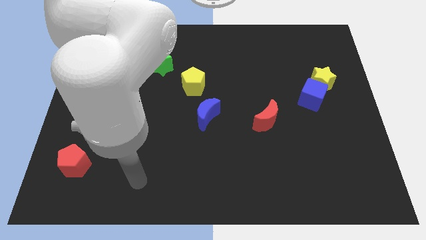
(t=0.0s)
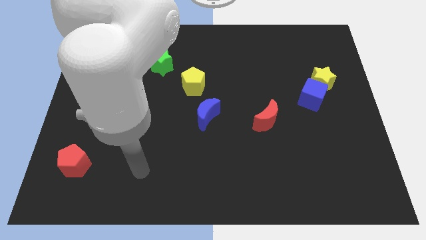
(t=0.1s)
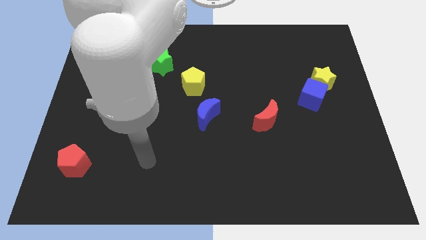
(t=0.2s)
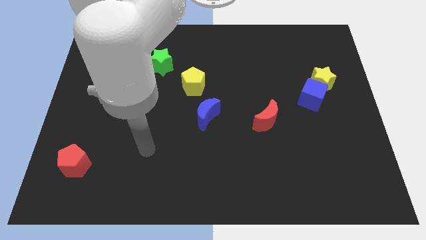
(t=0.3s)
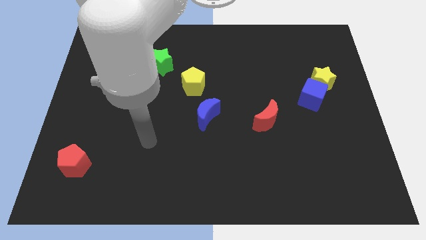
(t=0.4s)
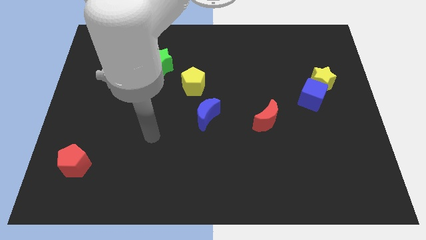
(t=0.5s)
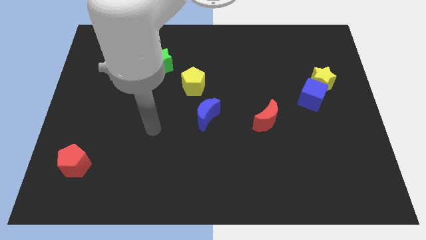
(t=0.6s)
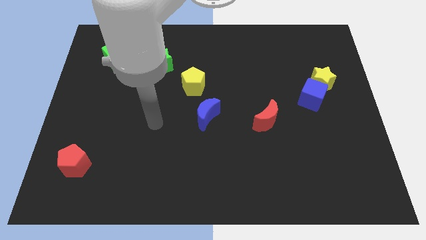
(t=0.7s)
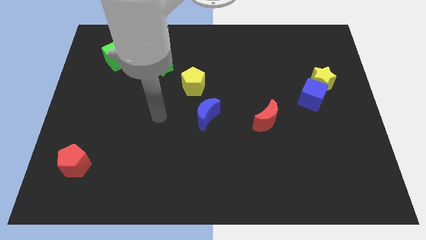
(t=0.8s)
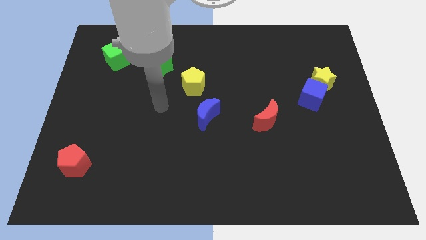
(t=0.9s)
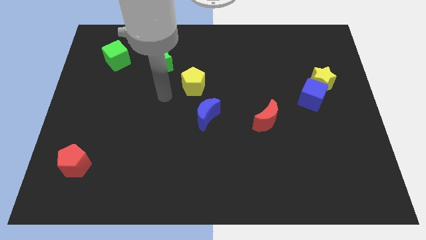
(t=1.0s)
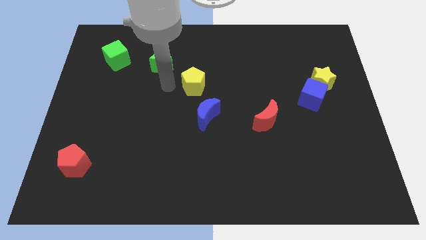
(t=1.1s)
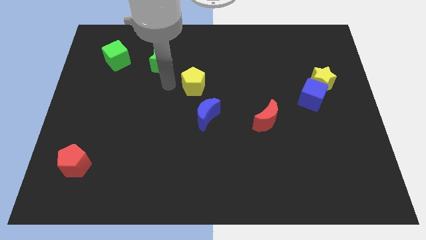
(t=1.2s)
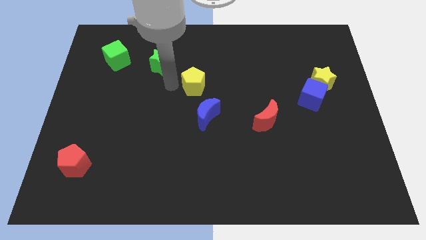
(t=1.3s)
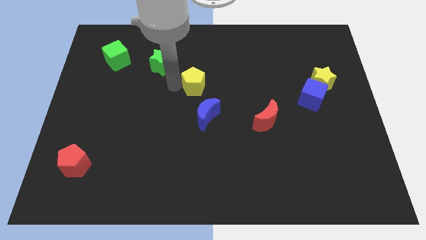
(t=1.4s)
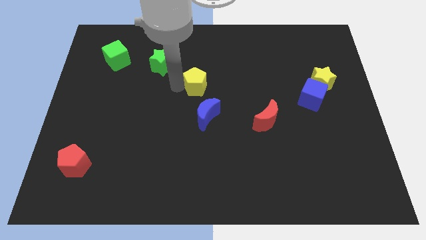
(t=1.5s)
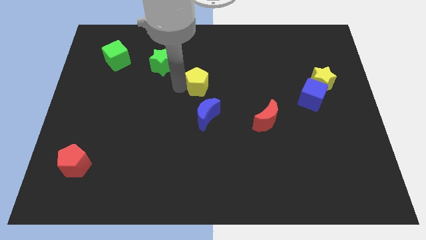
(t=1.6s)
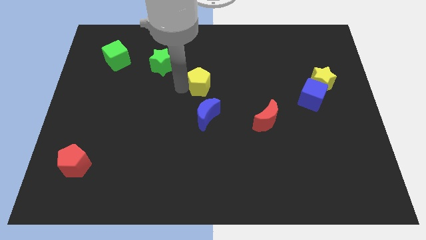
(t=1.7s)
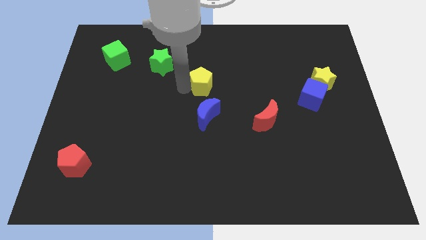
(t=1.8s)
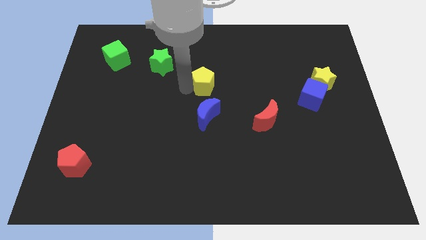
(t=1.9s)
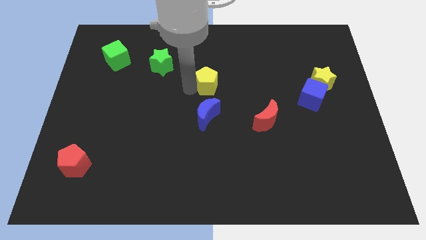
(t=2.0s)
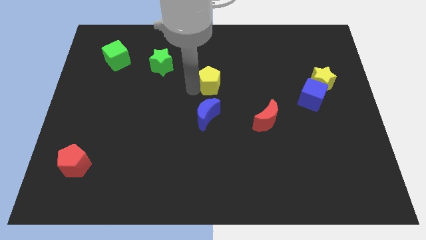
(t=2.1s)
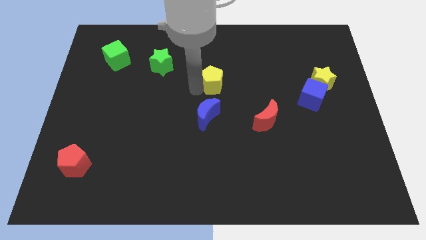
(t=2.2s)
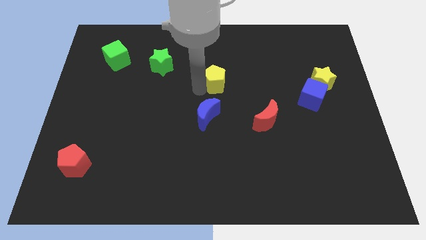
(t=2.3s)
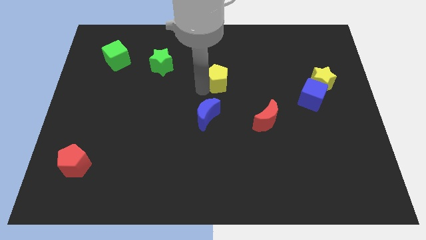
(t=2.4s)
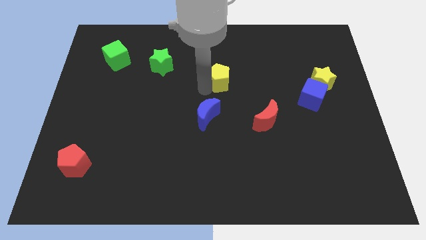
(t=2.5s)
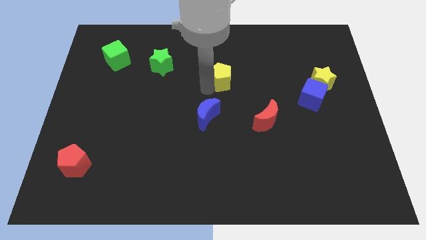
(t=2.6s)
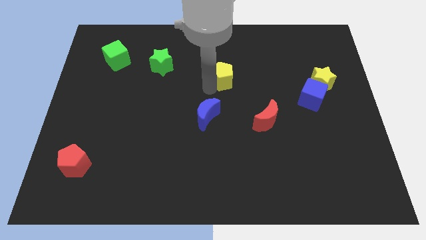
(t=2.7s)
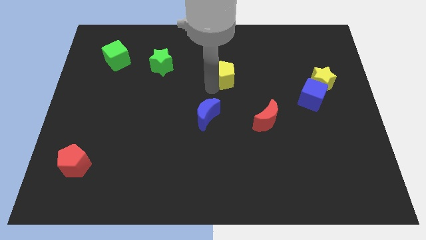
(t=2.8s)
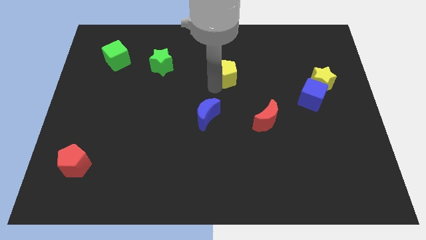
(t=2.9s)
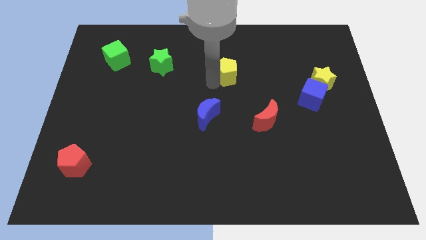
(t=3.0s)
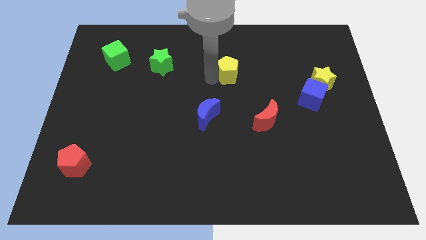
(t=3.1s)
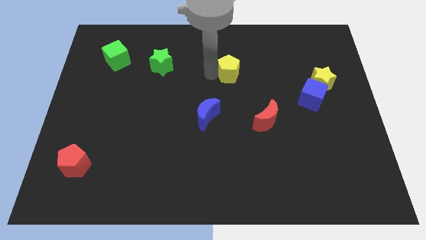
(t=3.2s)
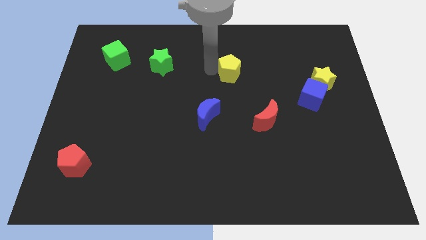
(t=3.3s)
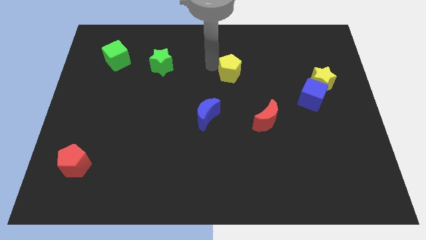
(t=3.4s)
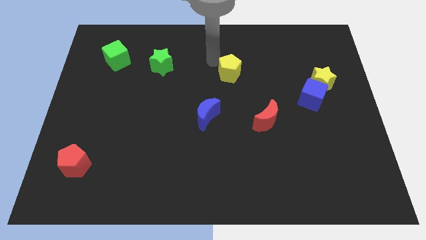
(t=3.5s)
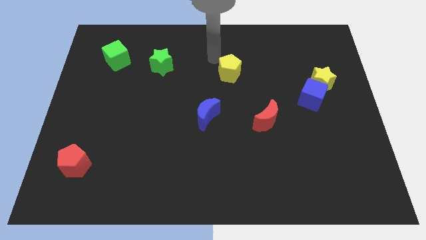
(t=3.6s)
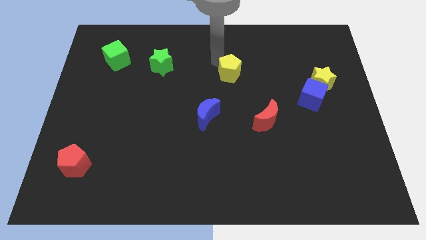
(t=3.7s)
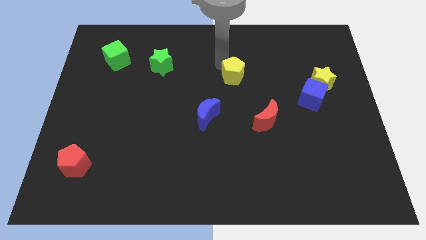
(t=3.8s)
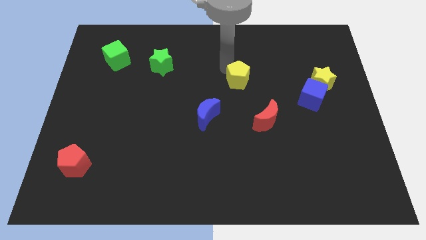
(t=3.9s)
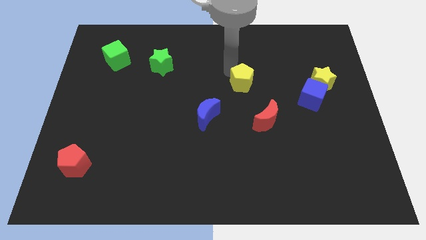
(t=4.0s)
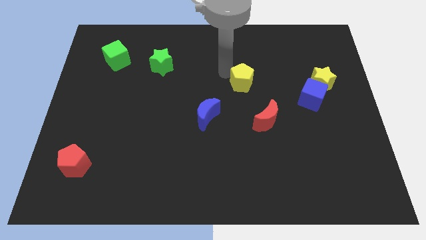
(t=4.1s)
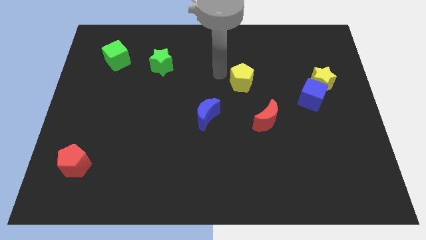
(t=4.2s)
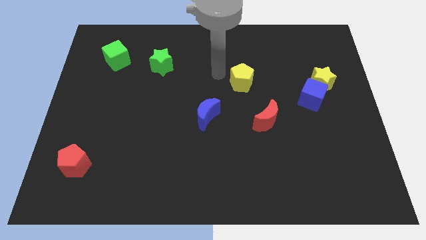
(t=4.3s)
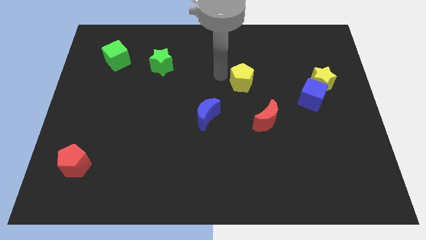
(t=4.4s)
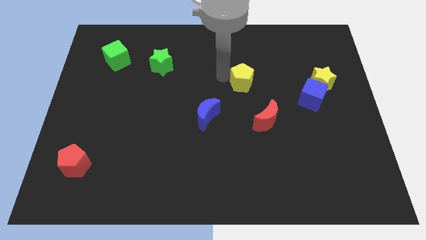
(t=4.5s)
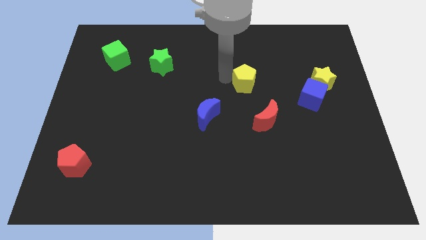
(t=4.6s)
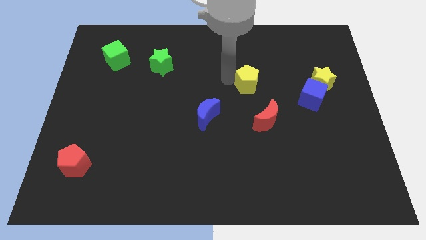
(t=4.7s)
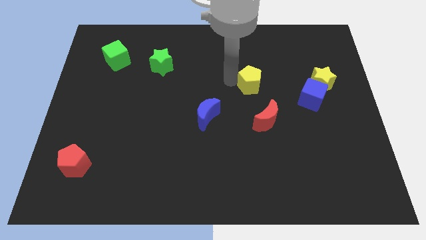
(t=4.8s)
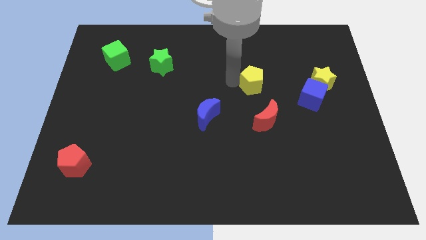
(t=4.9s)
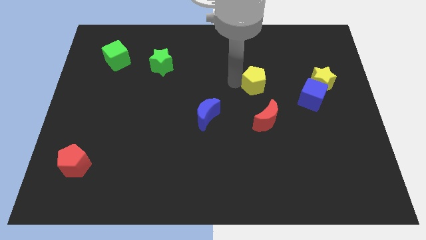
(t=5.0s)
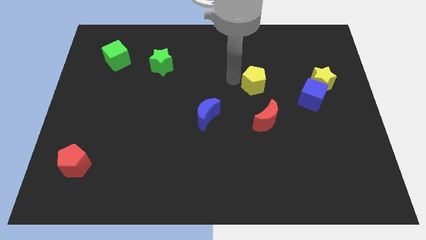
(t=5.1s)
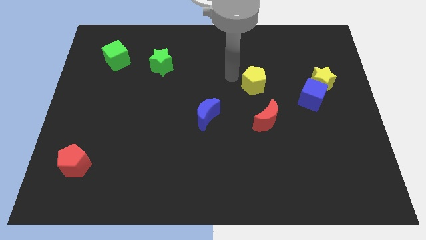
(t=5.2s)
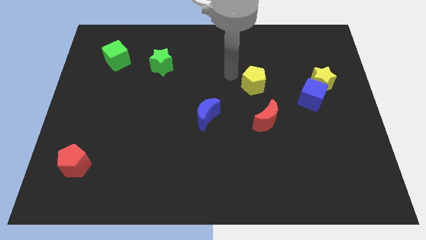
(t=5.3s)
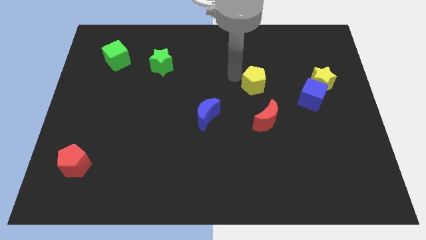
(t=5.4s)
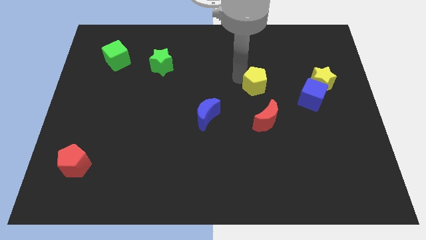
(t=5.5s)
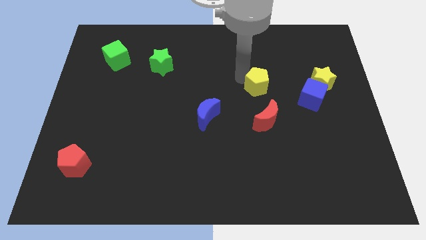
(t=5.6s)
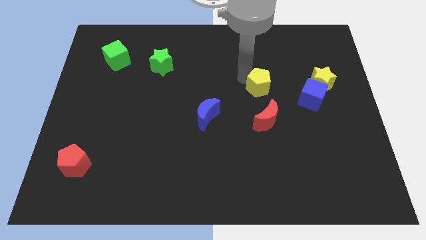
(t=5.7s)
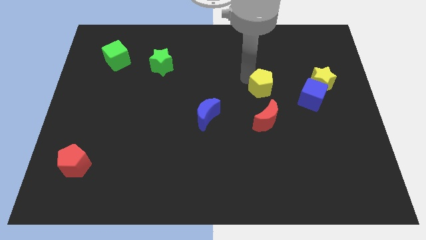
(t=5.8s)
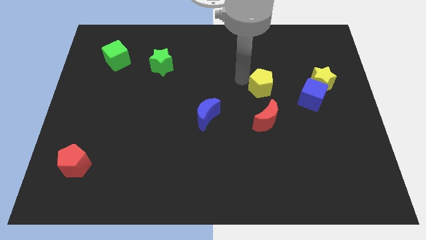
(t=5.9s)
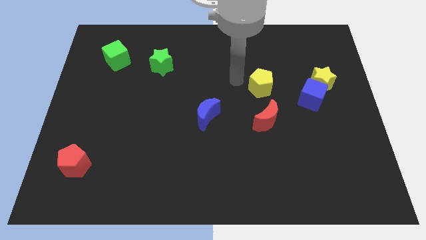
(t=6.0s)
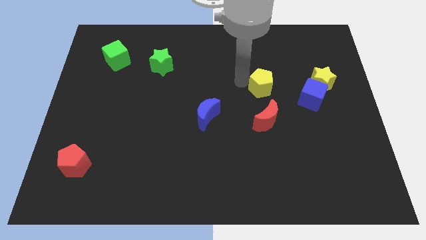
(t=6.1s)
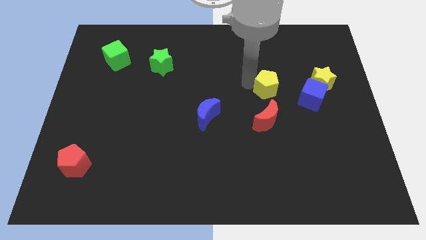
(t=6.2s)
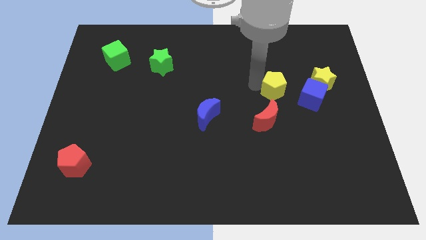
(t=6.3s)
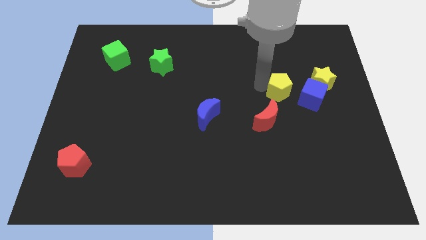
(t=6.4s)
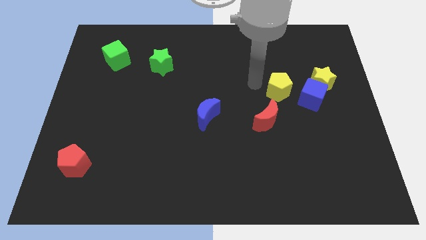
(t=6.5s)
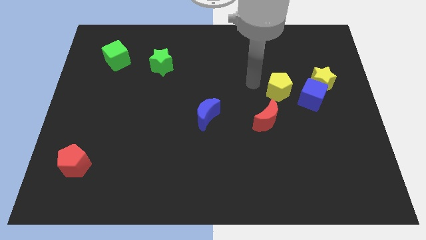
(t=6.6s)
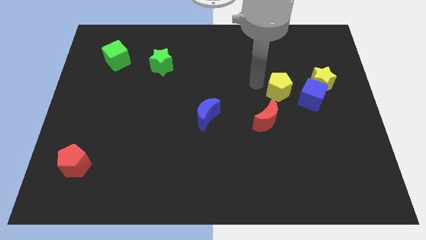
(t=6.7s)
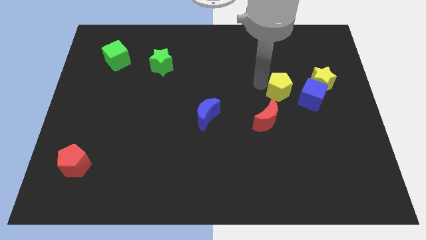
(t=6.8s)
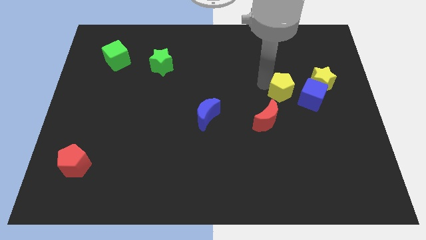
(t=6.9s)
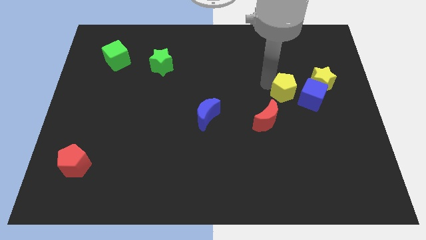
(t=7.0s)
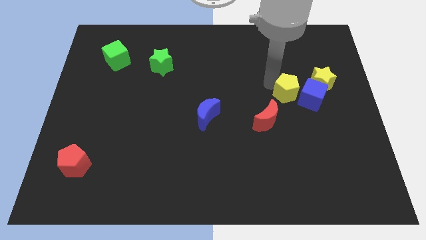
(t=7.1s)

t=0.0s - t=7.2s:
push the yellow pentagon close to the blue cube
